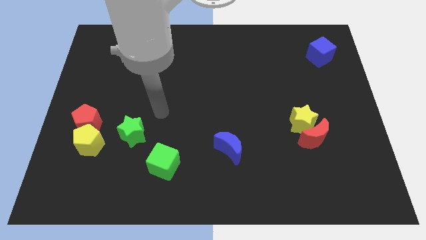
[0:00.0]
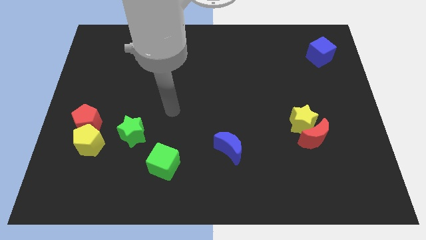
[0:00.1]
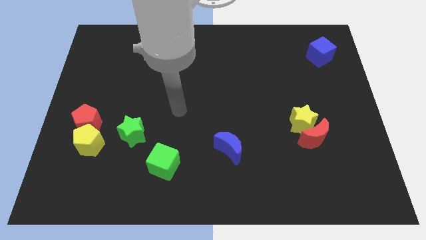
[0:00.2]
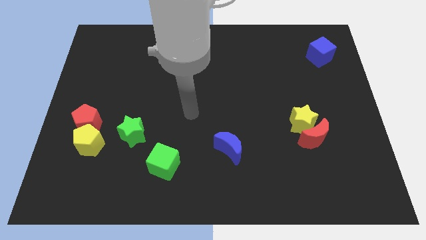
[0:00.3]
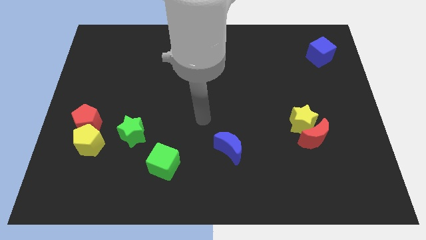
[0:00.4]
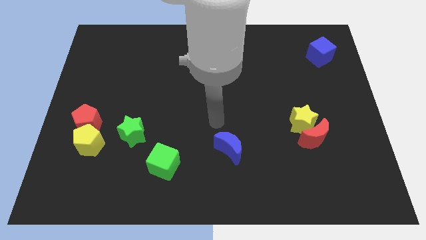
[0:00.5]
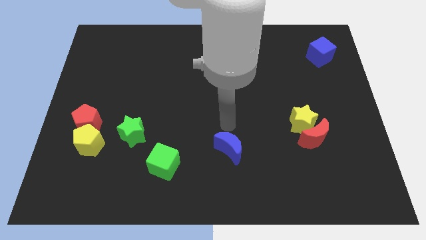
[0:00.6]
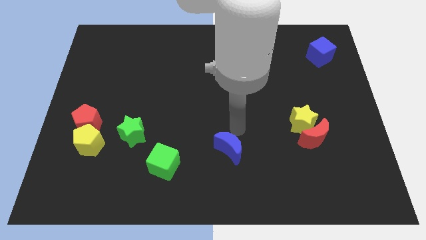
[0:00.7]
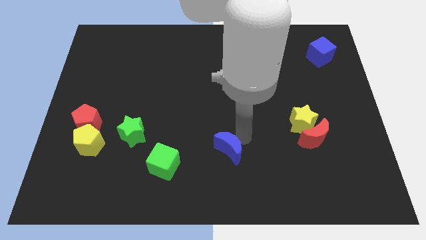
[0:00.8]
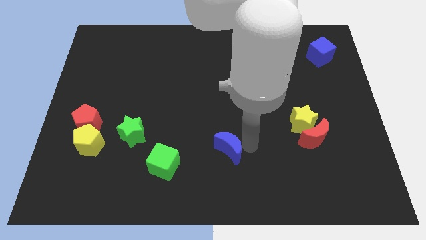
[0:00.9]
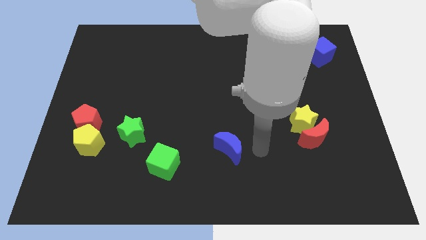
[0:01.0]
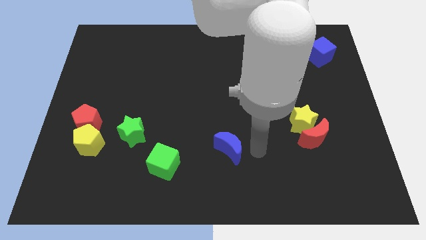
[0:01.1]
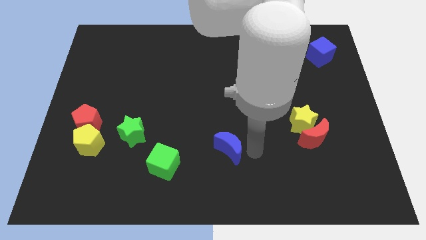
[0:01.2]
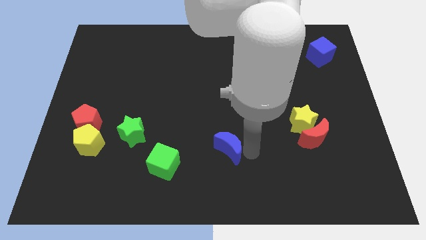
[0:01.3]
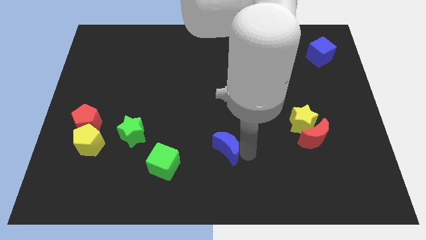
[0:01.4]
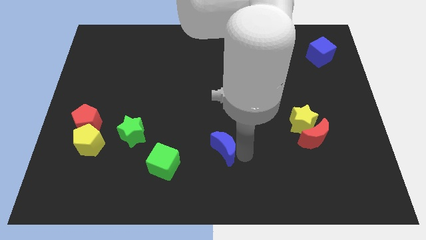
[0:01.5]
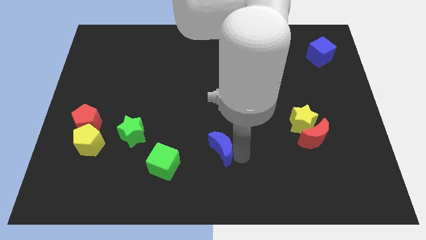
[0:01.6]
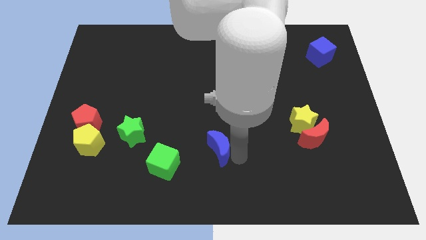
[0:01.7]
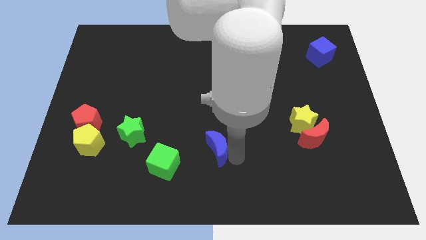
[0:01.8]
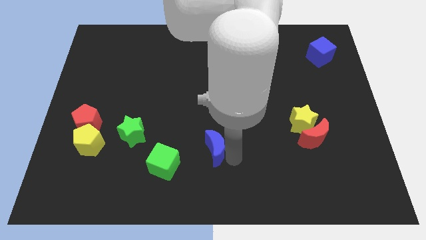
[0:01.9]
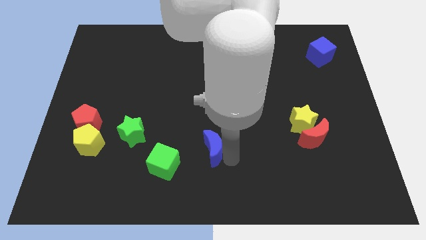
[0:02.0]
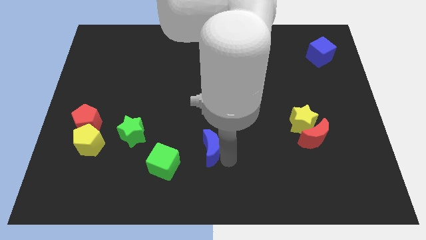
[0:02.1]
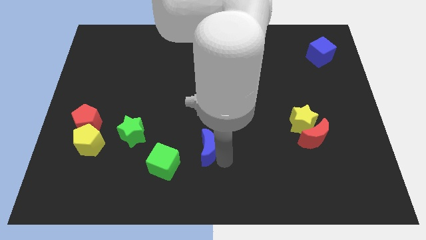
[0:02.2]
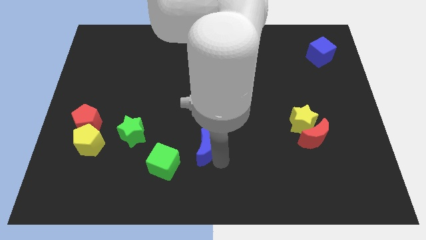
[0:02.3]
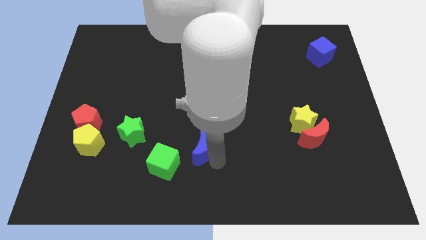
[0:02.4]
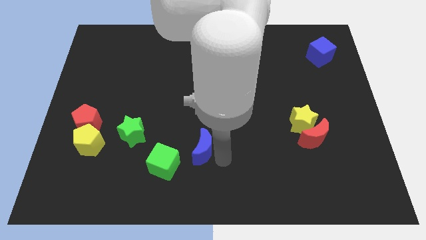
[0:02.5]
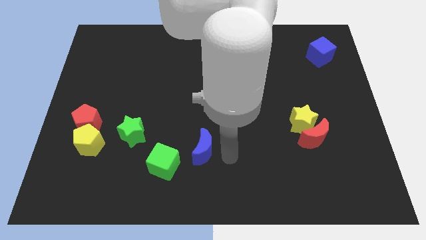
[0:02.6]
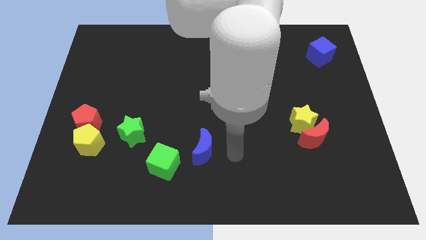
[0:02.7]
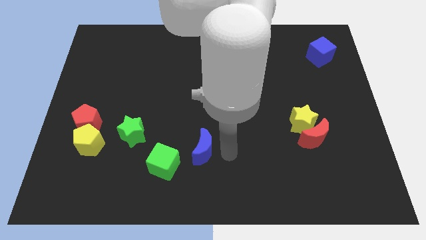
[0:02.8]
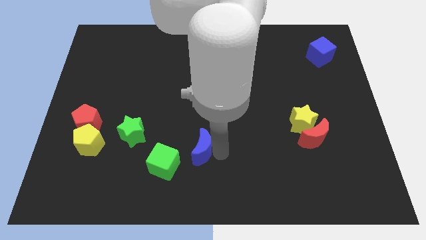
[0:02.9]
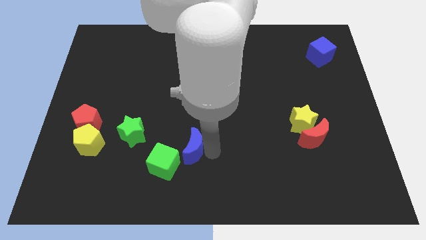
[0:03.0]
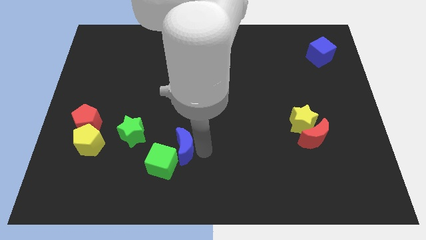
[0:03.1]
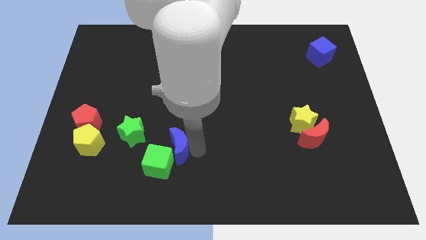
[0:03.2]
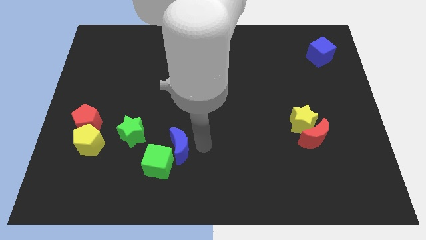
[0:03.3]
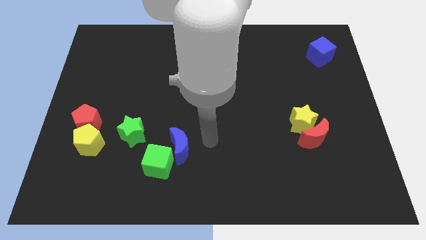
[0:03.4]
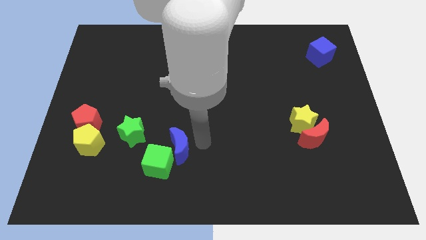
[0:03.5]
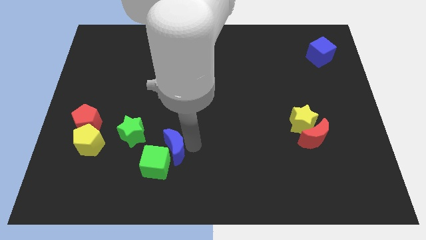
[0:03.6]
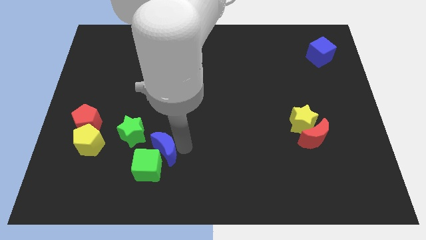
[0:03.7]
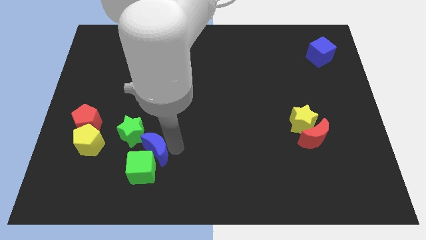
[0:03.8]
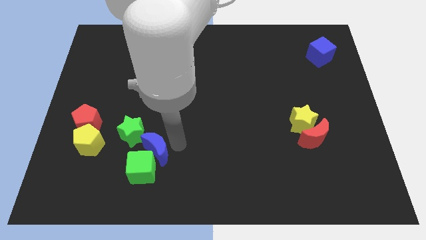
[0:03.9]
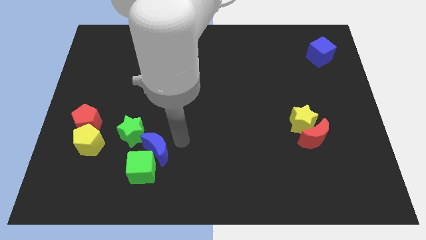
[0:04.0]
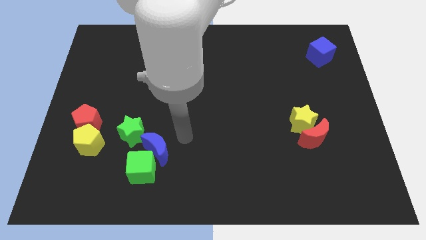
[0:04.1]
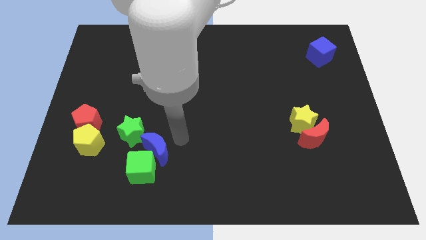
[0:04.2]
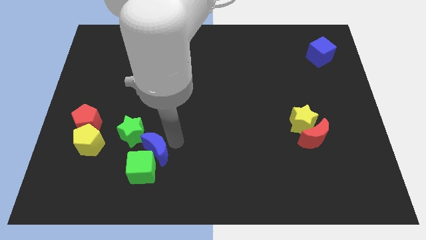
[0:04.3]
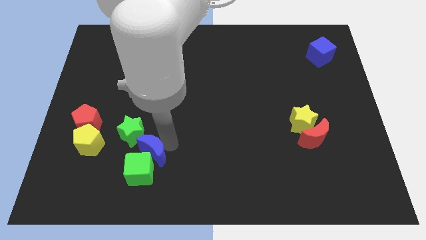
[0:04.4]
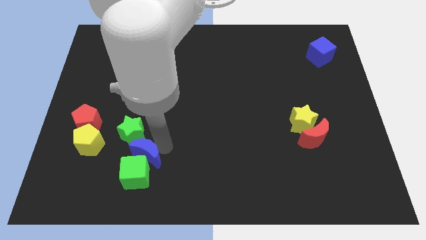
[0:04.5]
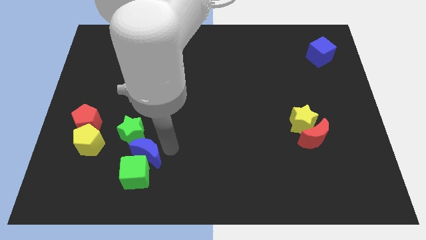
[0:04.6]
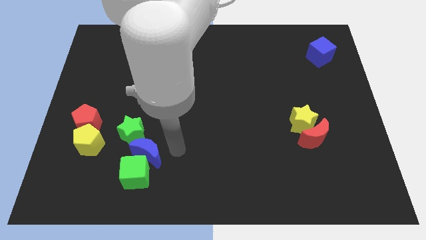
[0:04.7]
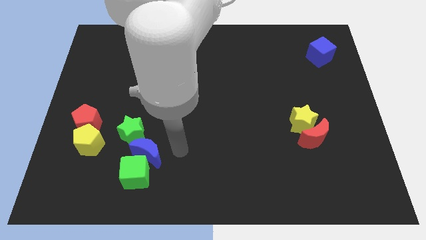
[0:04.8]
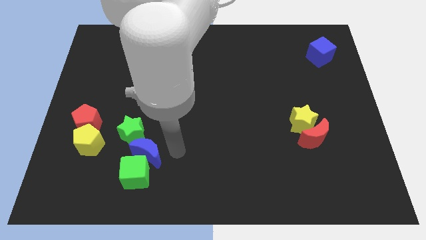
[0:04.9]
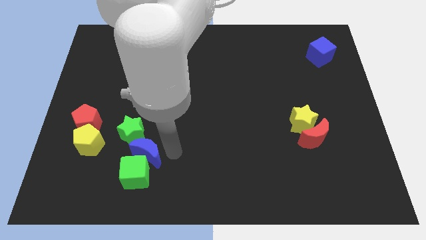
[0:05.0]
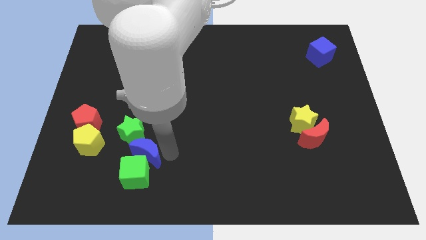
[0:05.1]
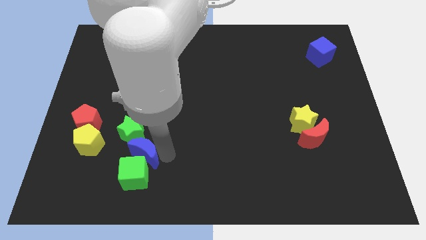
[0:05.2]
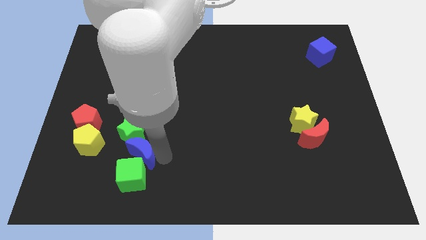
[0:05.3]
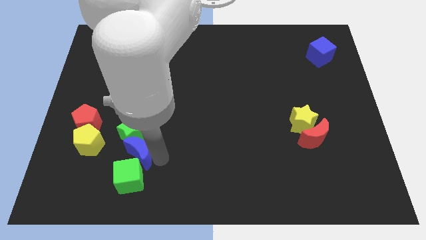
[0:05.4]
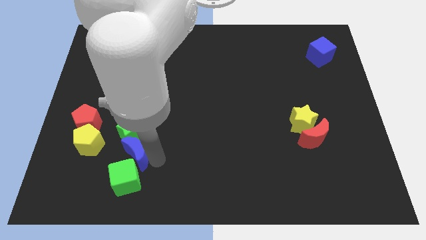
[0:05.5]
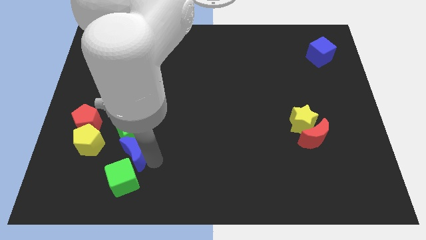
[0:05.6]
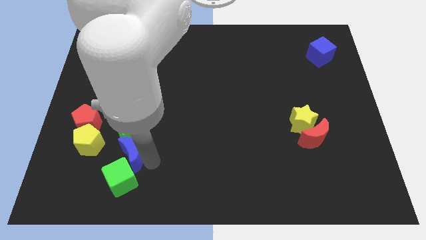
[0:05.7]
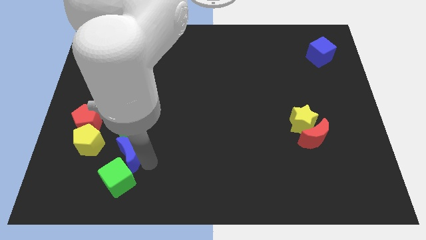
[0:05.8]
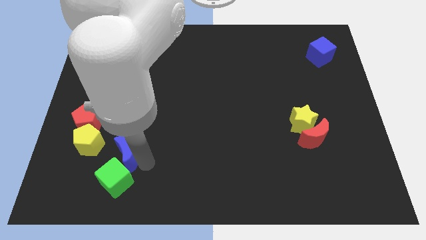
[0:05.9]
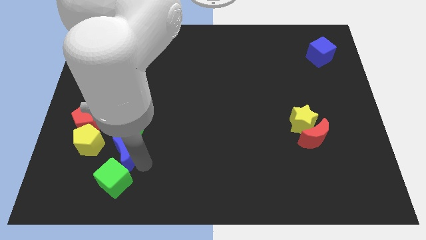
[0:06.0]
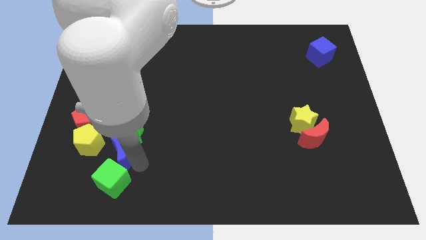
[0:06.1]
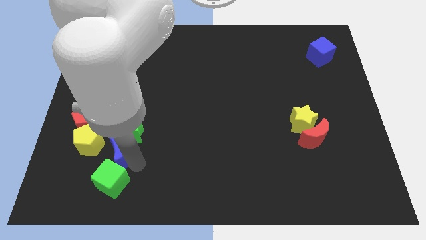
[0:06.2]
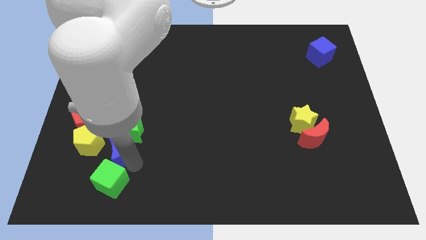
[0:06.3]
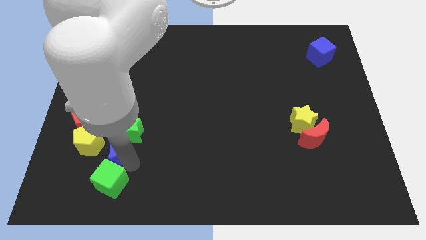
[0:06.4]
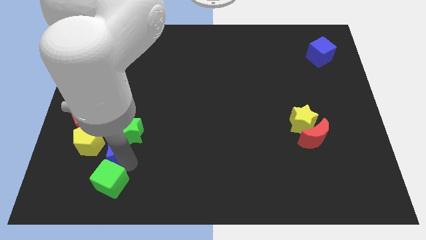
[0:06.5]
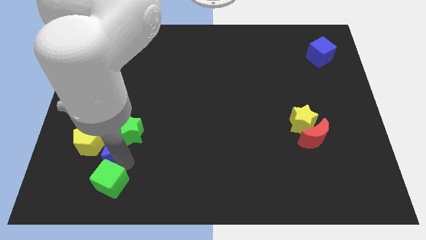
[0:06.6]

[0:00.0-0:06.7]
put the blue moon to the yellow pentagon
